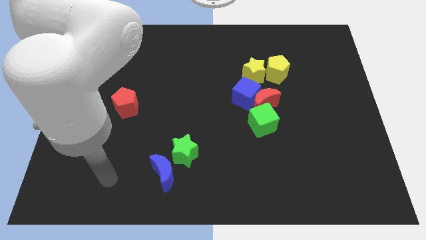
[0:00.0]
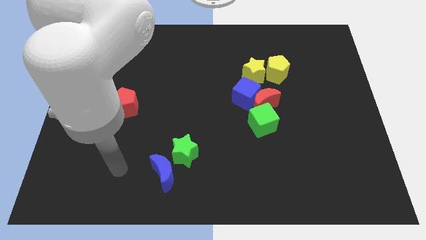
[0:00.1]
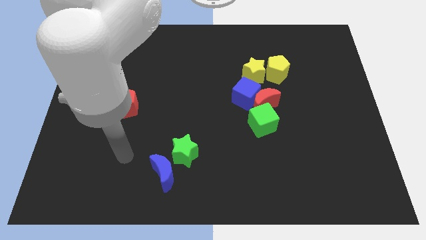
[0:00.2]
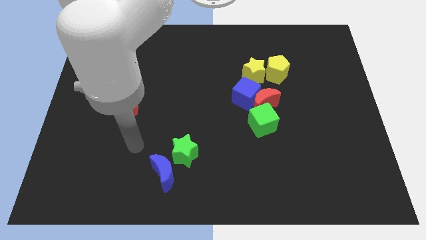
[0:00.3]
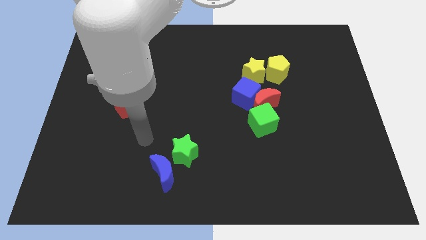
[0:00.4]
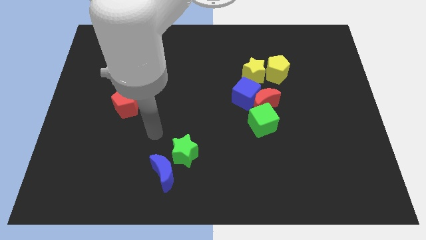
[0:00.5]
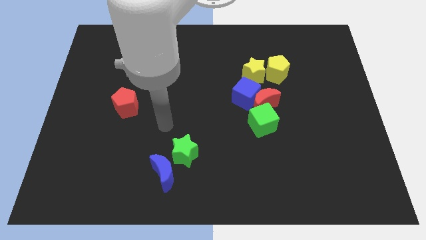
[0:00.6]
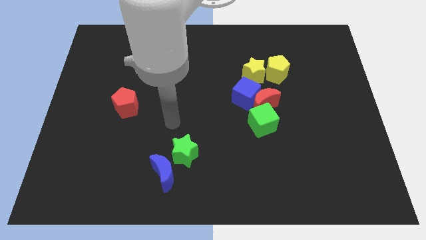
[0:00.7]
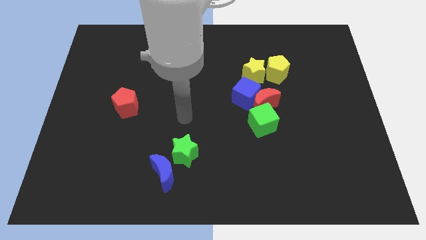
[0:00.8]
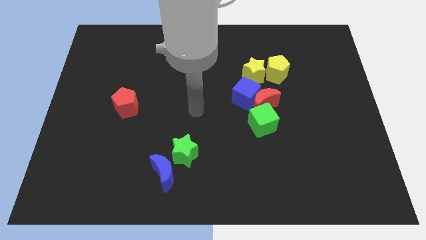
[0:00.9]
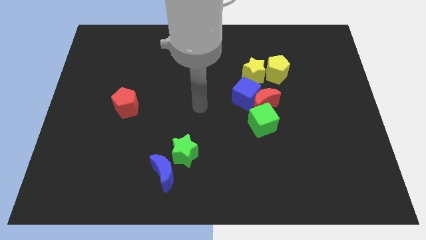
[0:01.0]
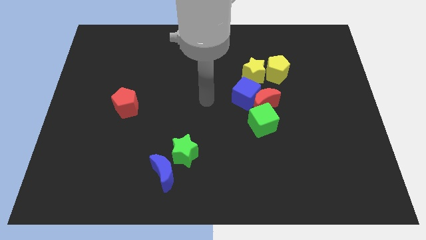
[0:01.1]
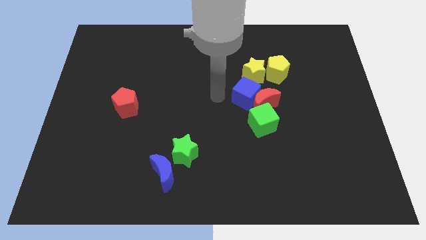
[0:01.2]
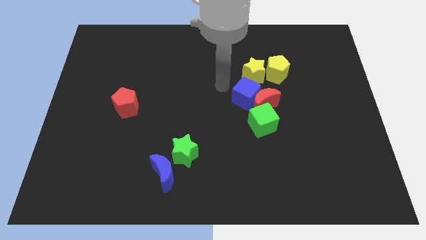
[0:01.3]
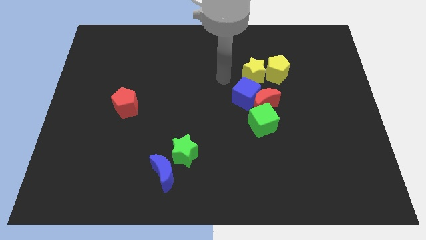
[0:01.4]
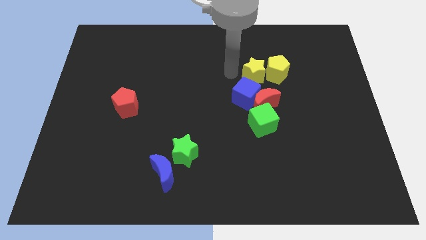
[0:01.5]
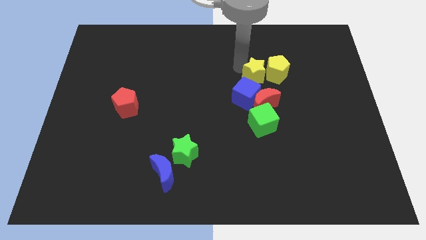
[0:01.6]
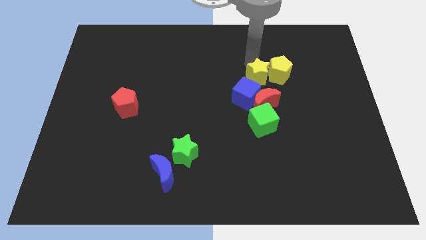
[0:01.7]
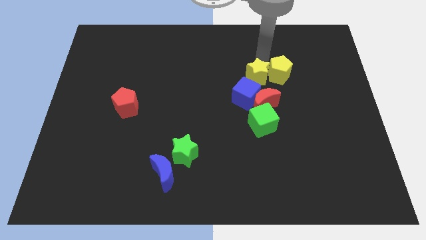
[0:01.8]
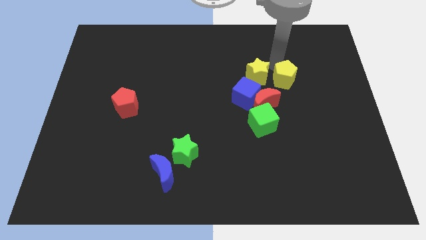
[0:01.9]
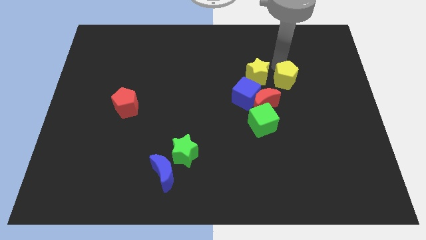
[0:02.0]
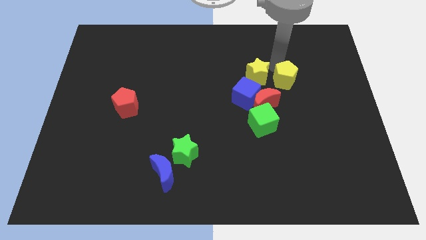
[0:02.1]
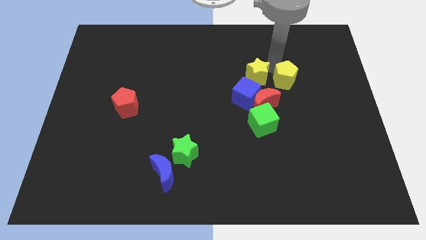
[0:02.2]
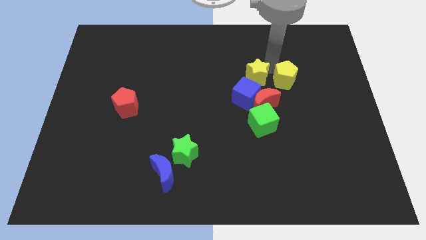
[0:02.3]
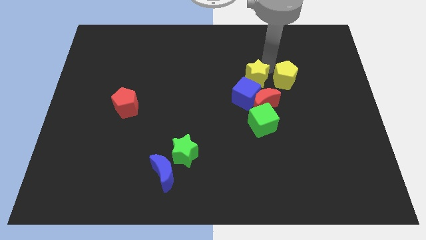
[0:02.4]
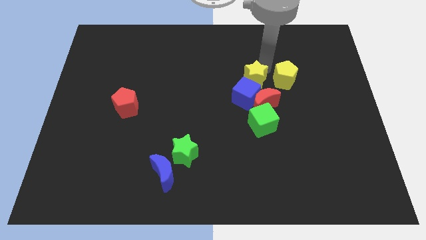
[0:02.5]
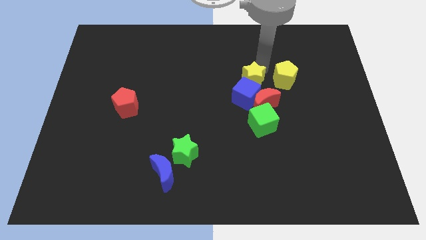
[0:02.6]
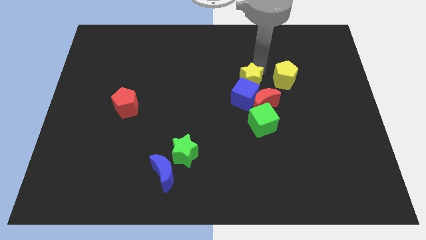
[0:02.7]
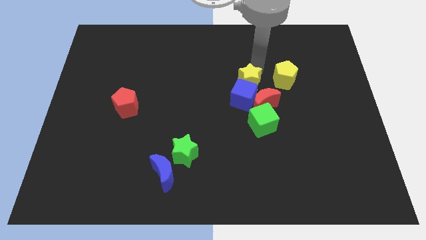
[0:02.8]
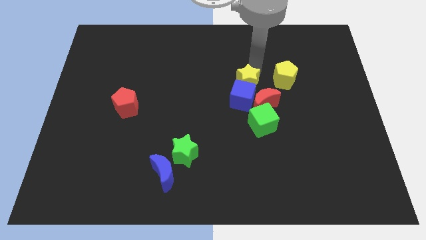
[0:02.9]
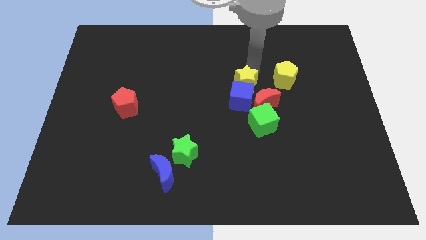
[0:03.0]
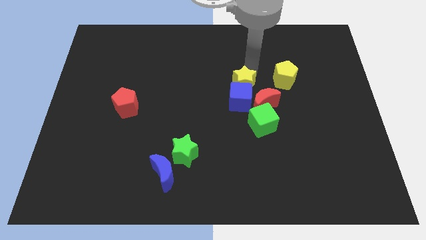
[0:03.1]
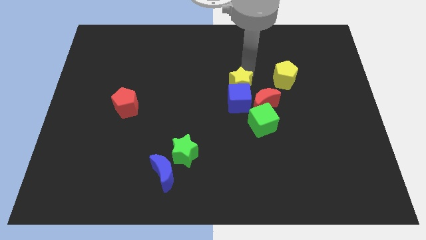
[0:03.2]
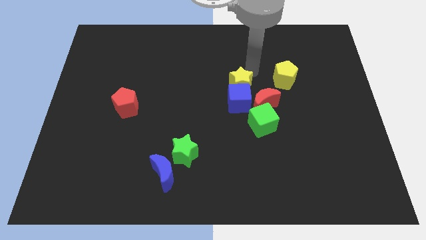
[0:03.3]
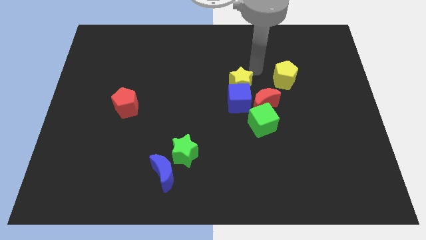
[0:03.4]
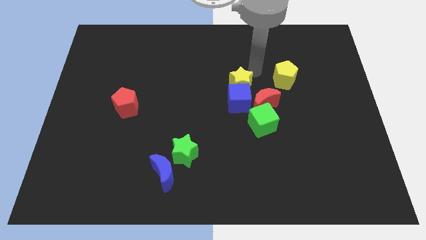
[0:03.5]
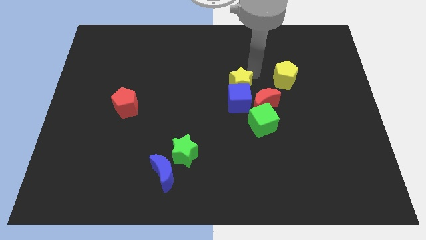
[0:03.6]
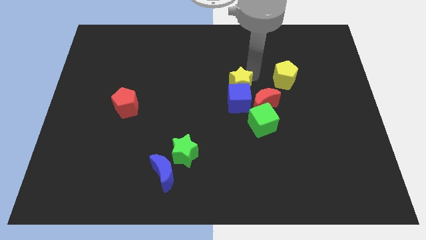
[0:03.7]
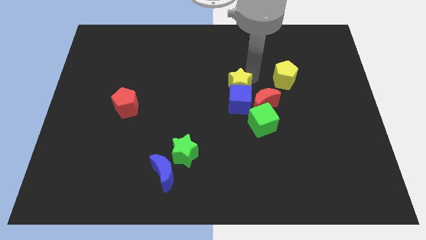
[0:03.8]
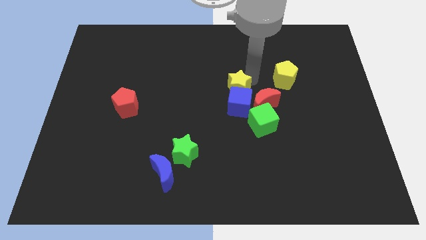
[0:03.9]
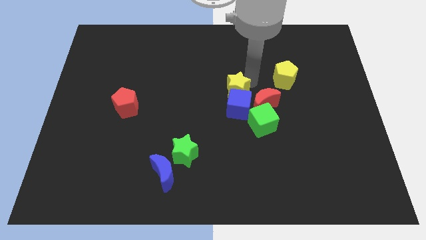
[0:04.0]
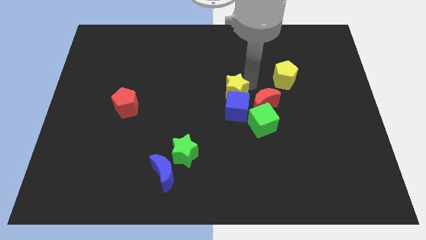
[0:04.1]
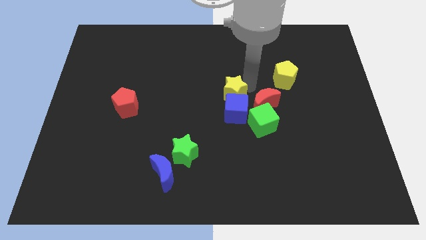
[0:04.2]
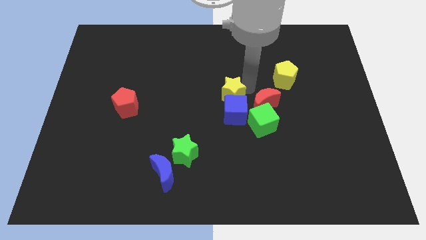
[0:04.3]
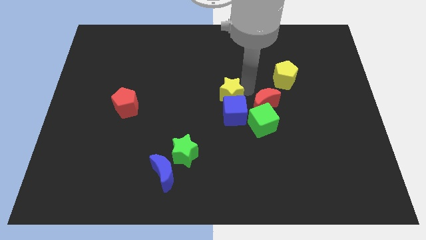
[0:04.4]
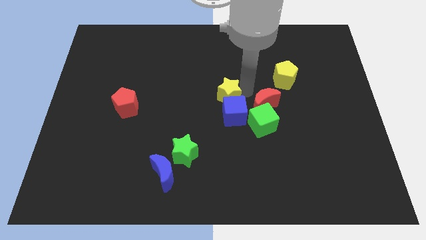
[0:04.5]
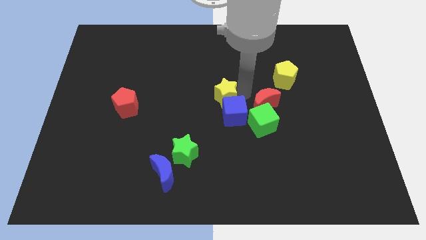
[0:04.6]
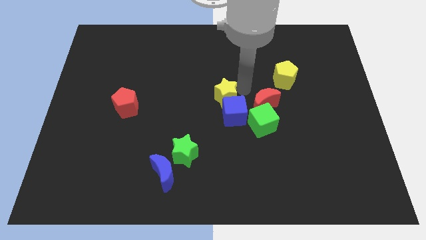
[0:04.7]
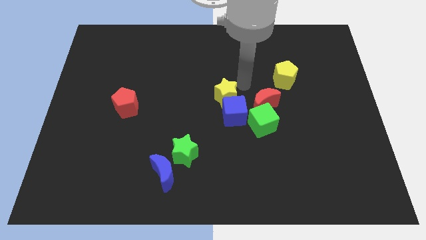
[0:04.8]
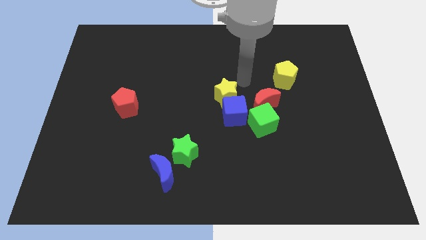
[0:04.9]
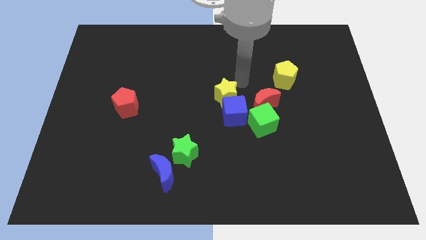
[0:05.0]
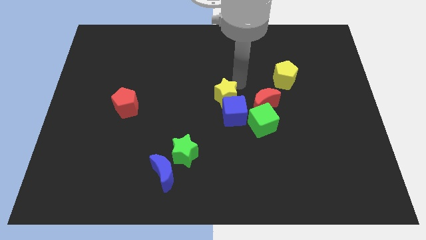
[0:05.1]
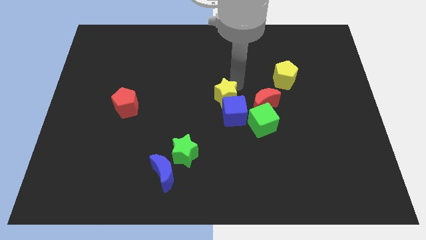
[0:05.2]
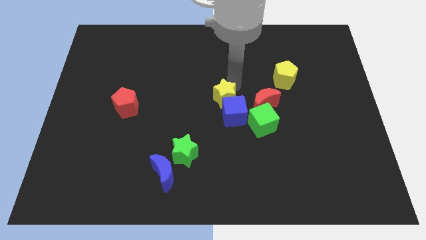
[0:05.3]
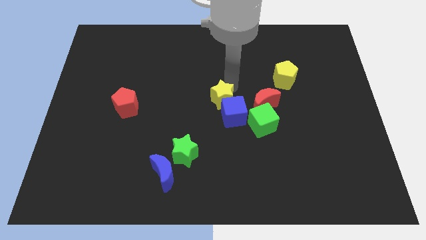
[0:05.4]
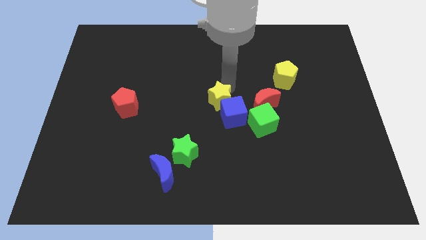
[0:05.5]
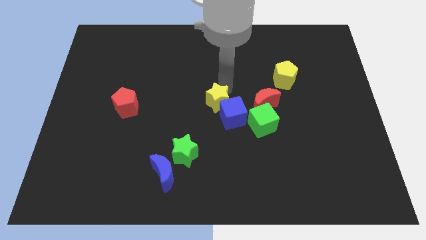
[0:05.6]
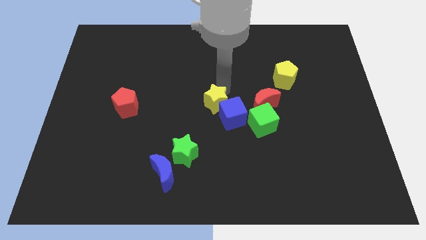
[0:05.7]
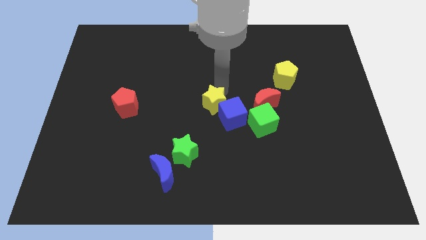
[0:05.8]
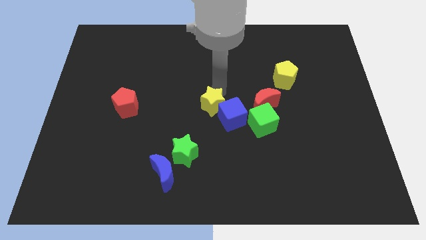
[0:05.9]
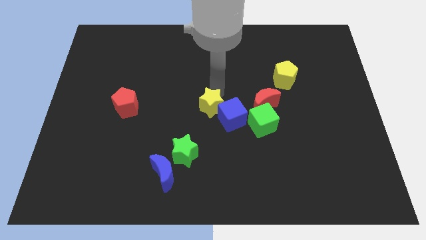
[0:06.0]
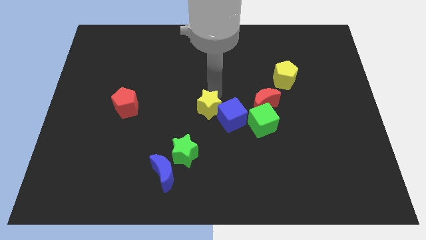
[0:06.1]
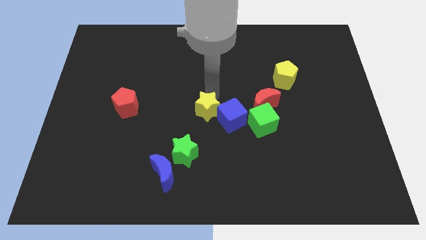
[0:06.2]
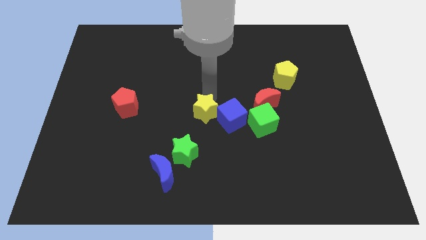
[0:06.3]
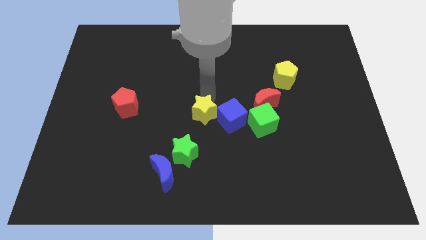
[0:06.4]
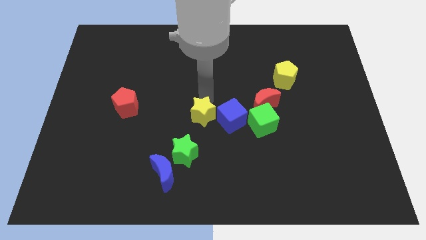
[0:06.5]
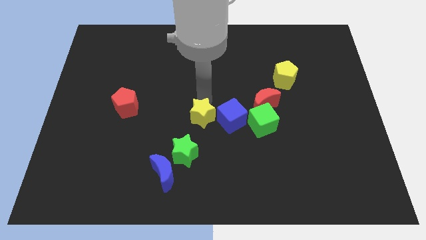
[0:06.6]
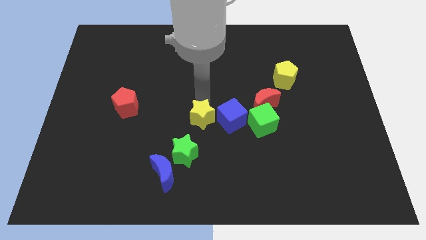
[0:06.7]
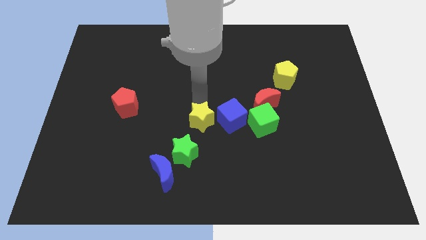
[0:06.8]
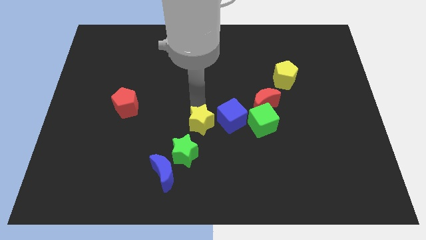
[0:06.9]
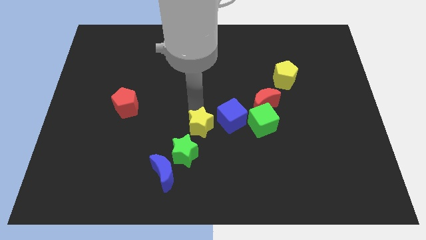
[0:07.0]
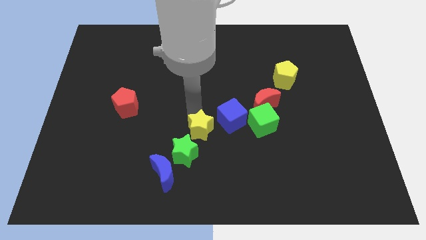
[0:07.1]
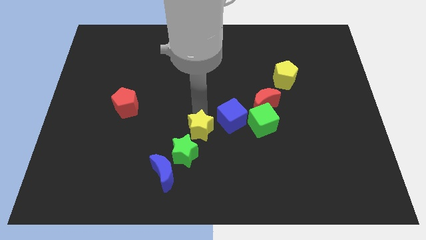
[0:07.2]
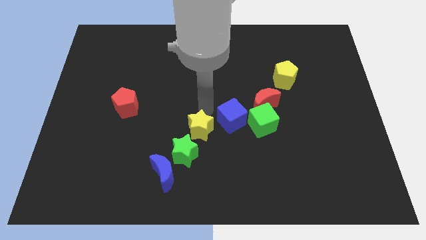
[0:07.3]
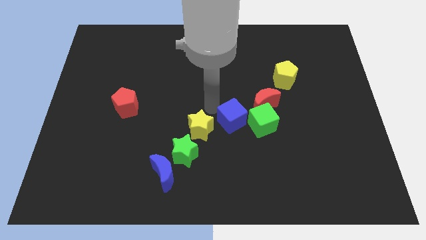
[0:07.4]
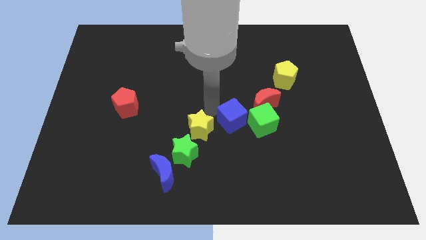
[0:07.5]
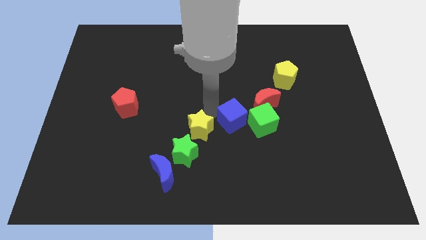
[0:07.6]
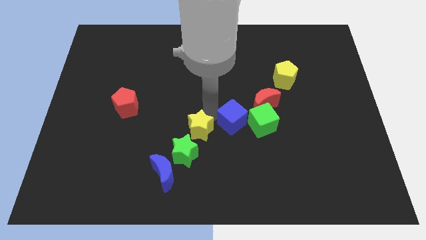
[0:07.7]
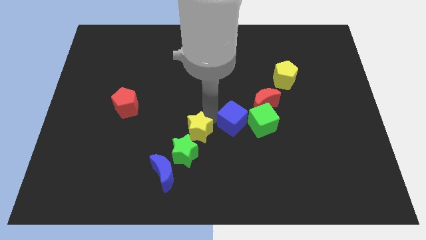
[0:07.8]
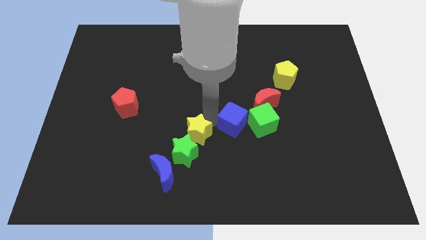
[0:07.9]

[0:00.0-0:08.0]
move the yellow star towards the green star
